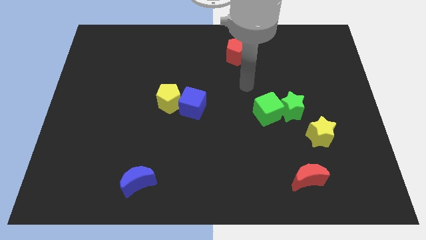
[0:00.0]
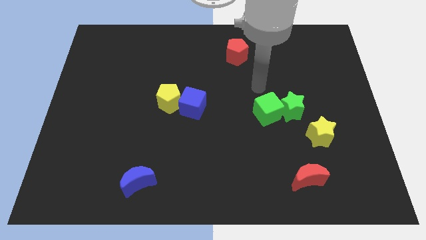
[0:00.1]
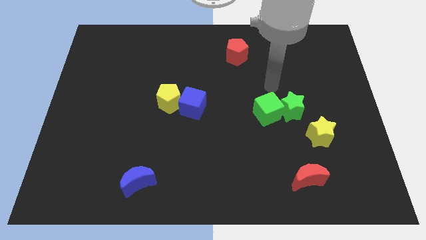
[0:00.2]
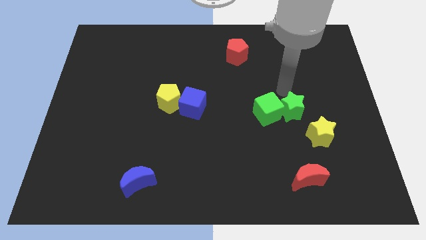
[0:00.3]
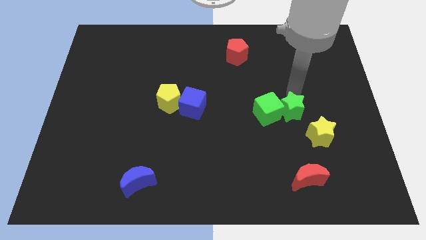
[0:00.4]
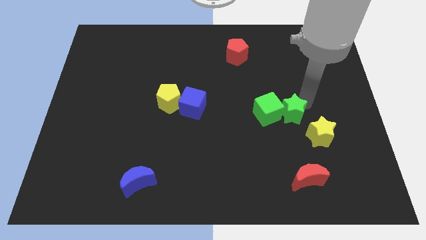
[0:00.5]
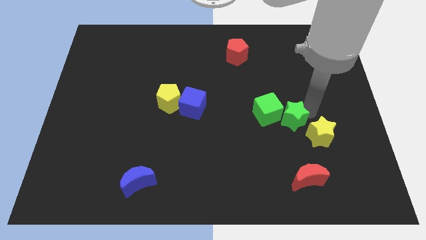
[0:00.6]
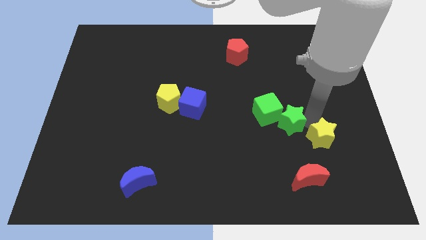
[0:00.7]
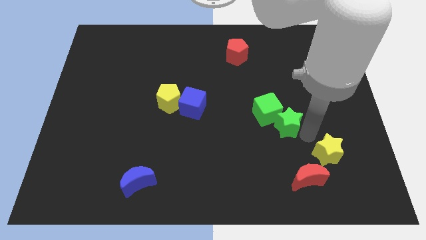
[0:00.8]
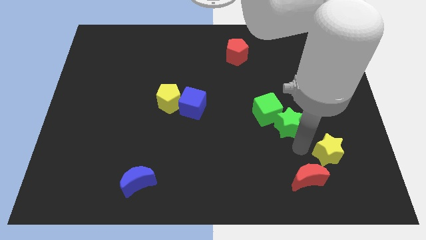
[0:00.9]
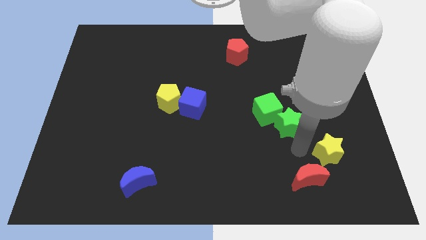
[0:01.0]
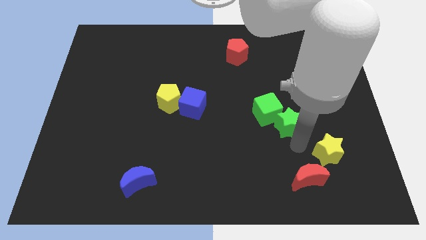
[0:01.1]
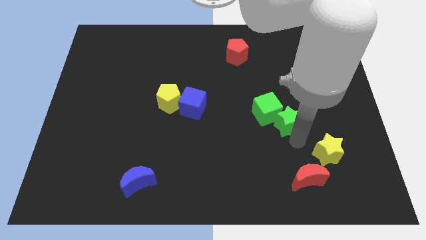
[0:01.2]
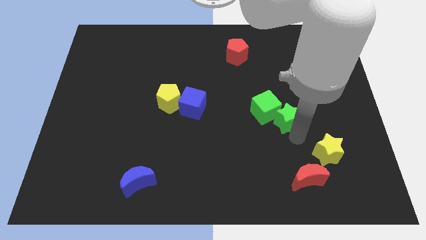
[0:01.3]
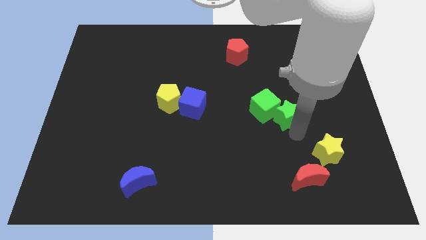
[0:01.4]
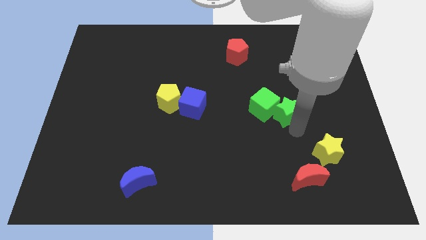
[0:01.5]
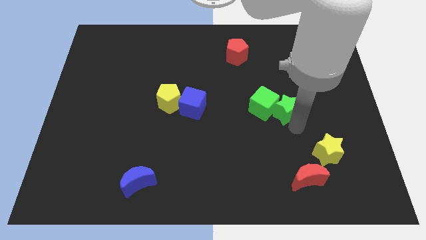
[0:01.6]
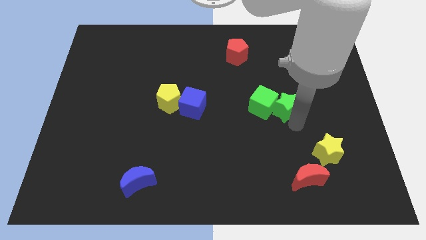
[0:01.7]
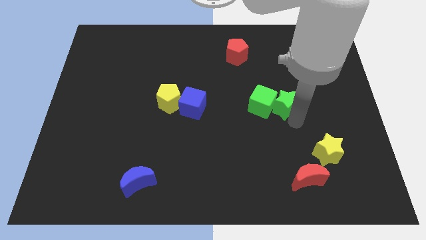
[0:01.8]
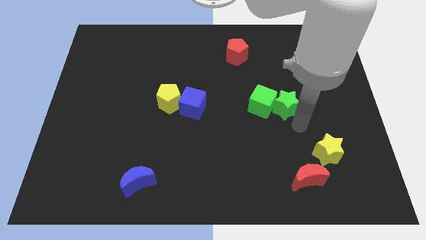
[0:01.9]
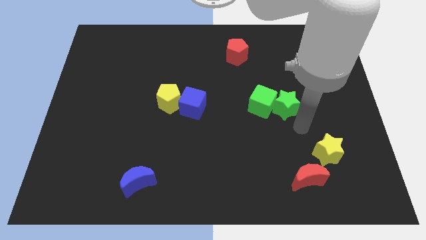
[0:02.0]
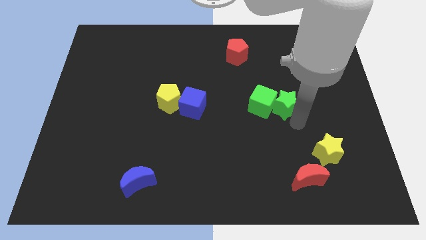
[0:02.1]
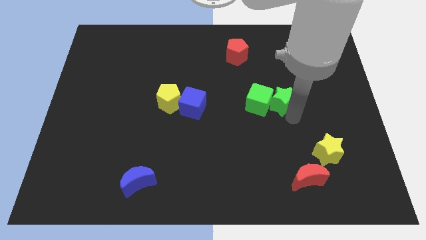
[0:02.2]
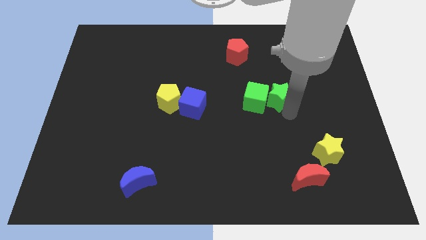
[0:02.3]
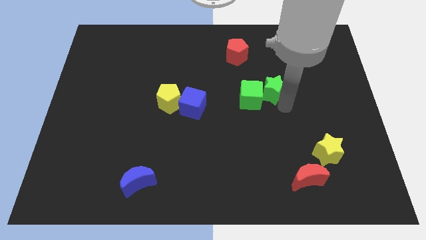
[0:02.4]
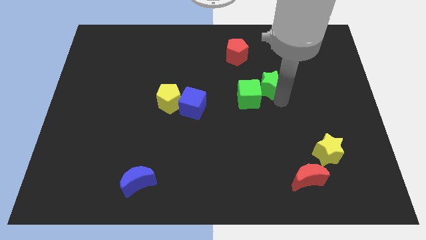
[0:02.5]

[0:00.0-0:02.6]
slightly slide the green star diagonally upwards and to the left

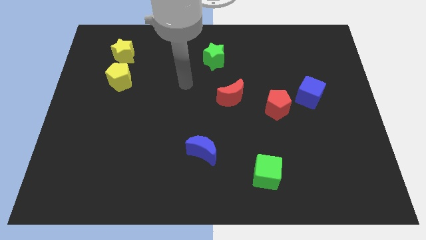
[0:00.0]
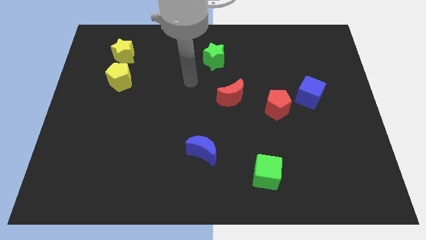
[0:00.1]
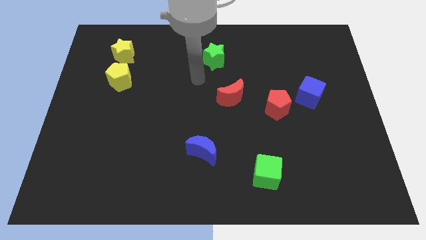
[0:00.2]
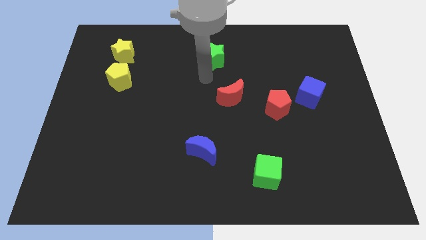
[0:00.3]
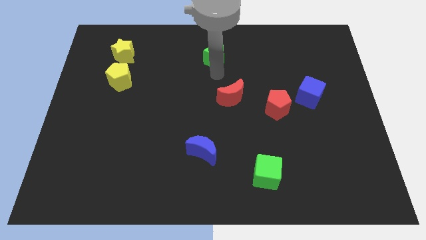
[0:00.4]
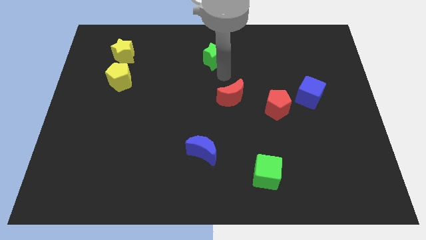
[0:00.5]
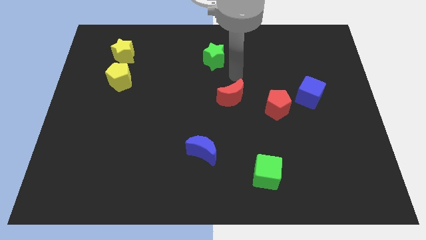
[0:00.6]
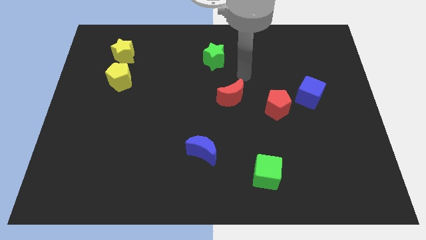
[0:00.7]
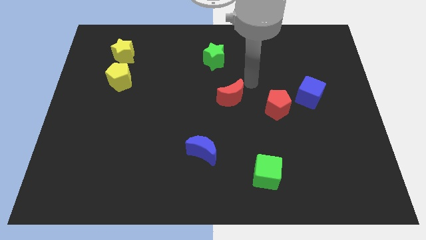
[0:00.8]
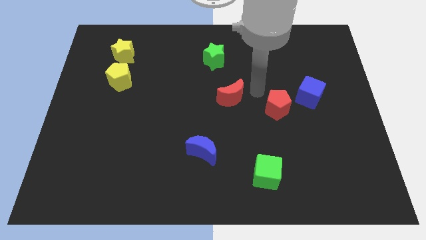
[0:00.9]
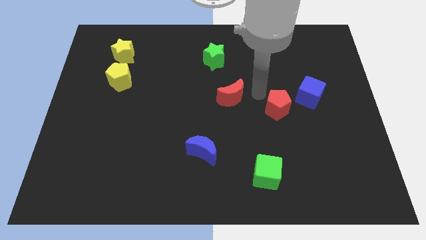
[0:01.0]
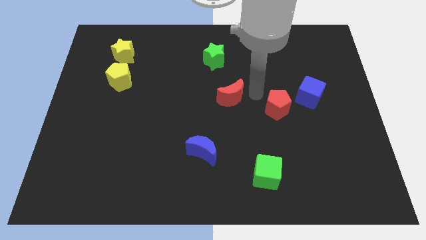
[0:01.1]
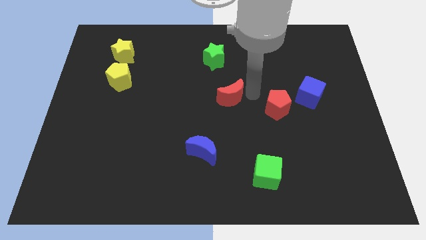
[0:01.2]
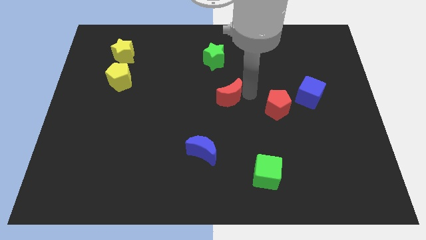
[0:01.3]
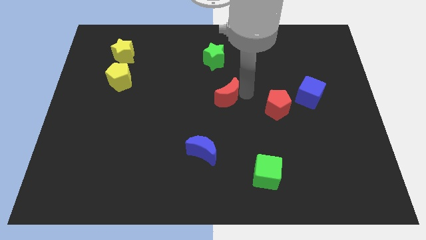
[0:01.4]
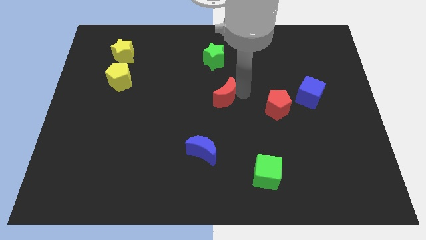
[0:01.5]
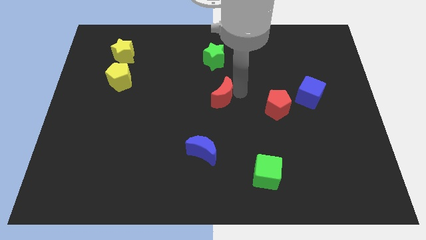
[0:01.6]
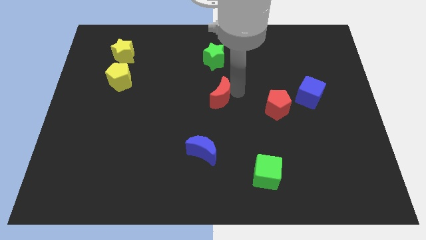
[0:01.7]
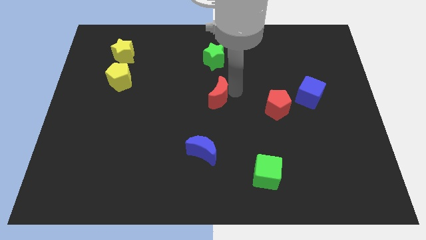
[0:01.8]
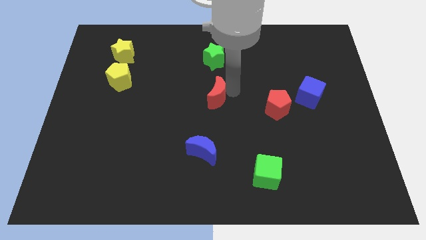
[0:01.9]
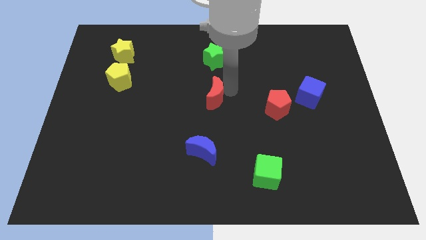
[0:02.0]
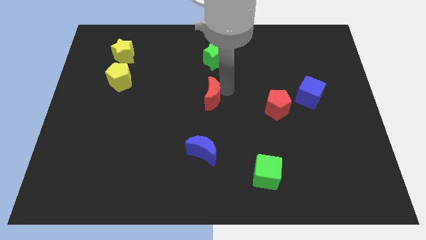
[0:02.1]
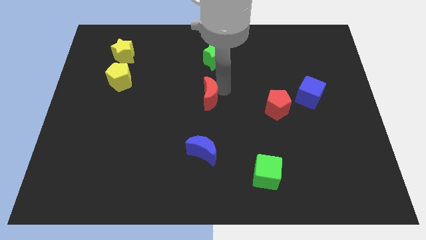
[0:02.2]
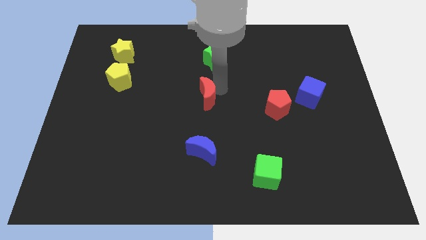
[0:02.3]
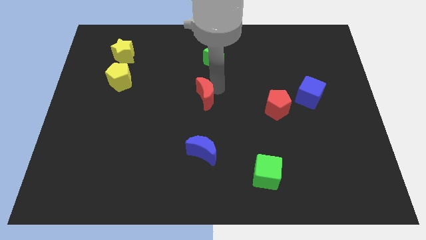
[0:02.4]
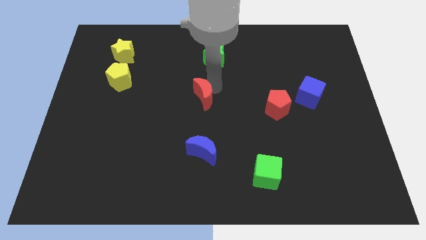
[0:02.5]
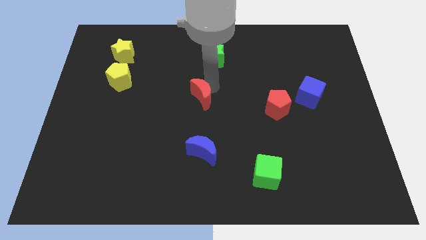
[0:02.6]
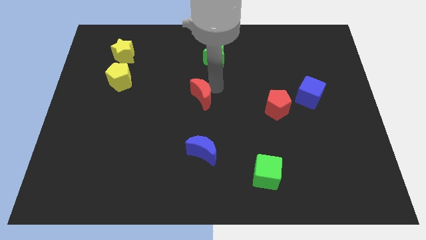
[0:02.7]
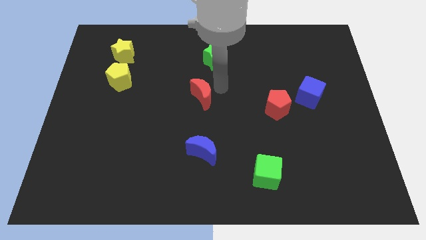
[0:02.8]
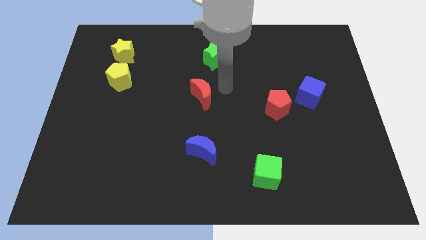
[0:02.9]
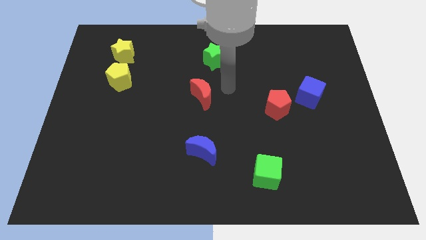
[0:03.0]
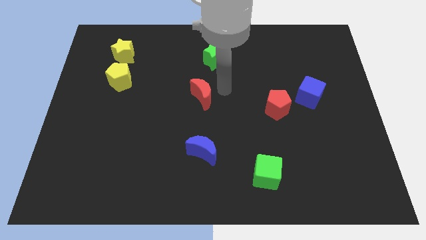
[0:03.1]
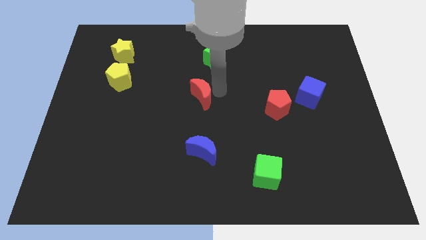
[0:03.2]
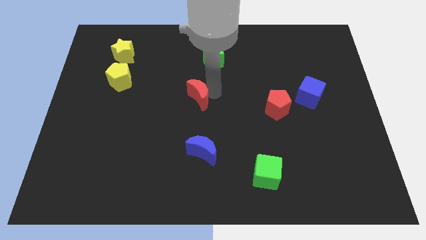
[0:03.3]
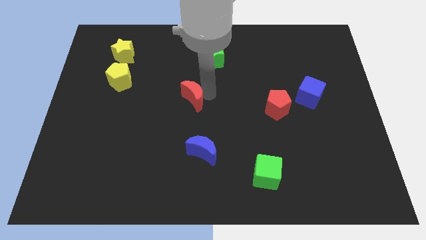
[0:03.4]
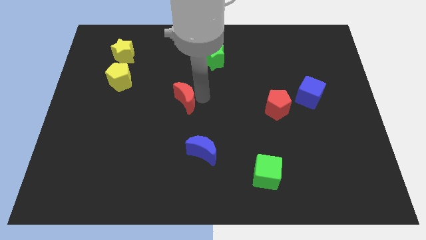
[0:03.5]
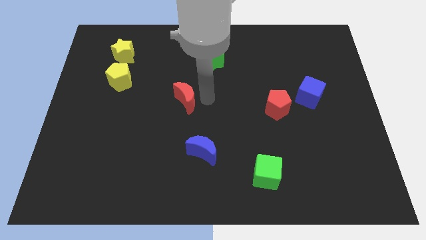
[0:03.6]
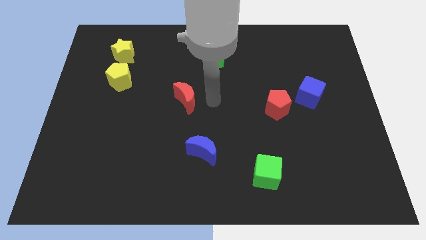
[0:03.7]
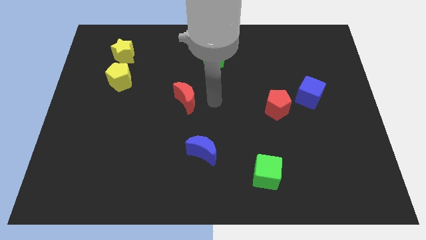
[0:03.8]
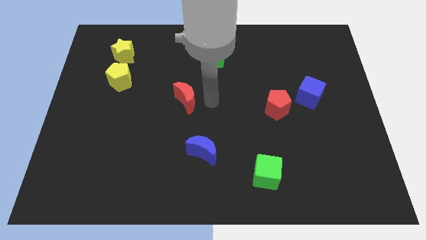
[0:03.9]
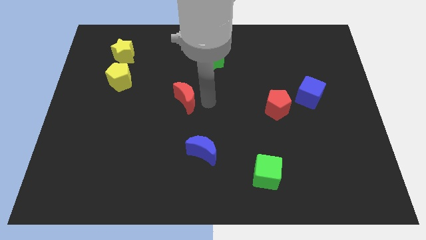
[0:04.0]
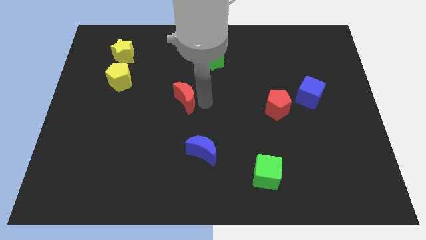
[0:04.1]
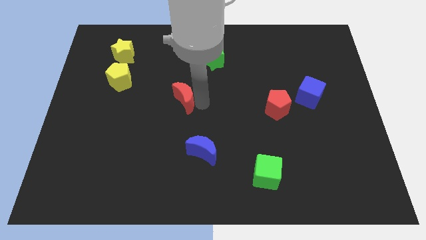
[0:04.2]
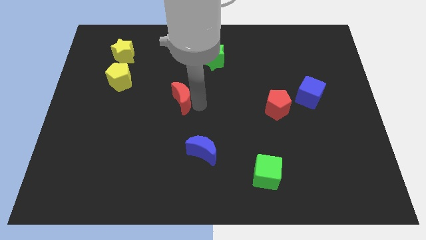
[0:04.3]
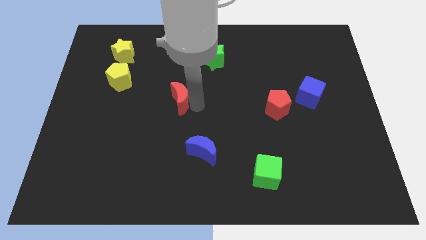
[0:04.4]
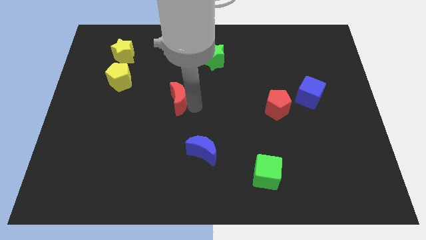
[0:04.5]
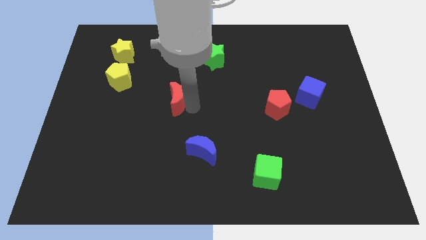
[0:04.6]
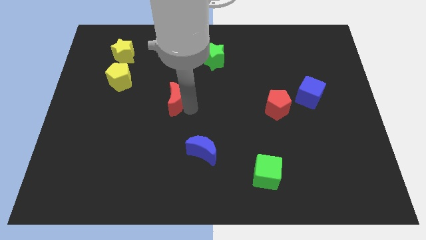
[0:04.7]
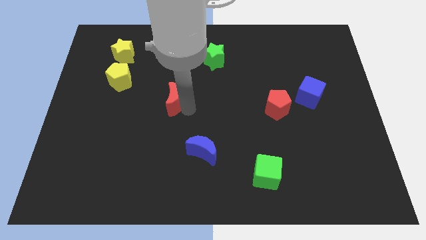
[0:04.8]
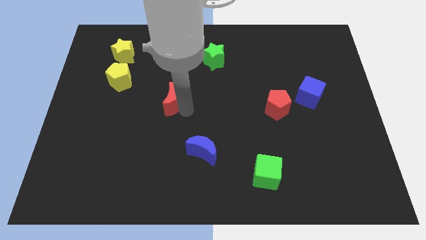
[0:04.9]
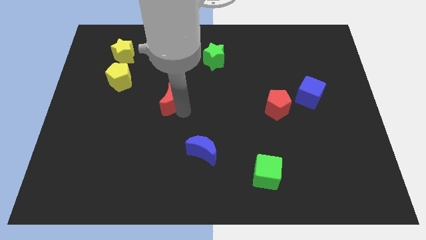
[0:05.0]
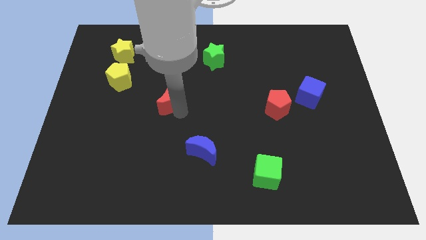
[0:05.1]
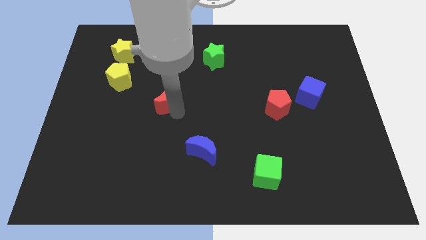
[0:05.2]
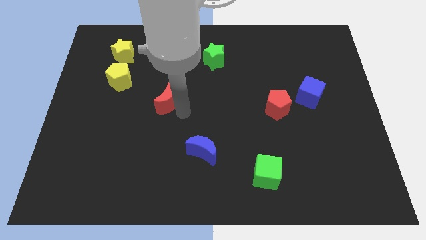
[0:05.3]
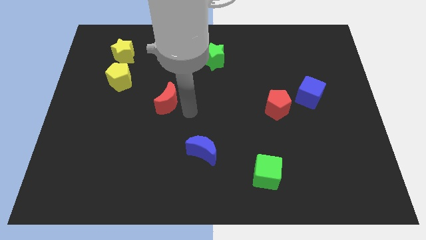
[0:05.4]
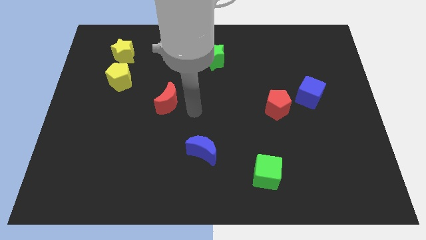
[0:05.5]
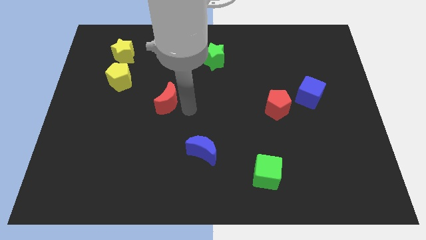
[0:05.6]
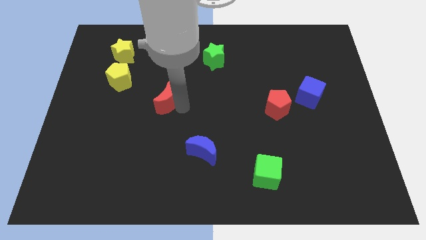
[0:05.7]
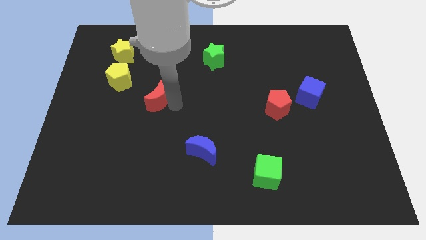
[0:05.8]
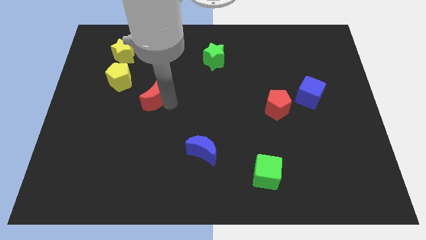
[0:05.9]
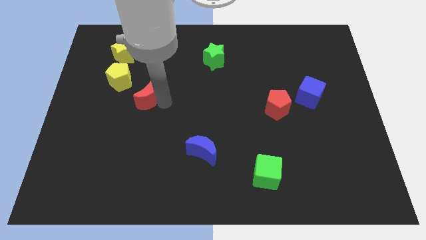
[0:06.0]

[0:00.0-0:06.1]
slide the red moon to the left
